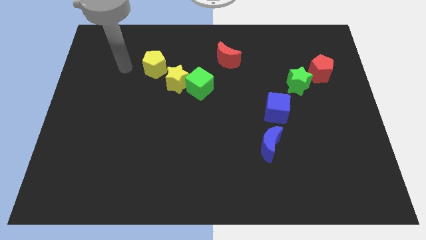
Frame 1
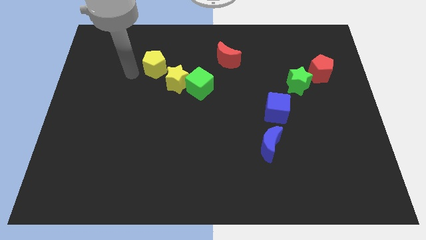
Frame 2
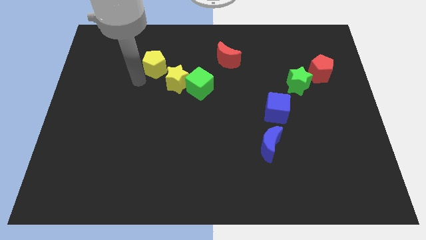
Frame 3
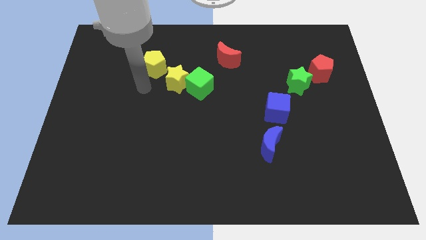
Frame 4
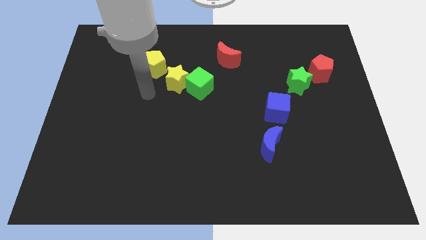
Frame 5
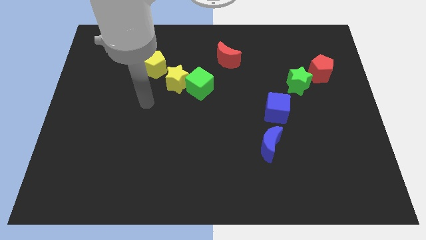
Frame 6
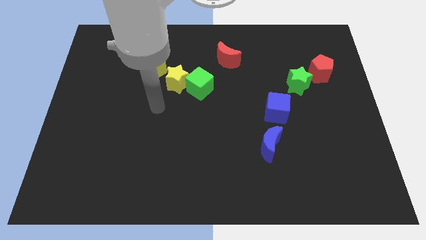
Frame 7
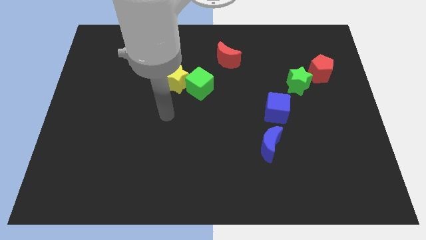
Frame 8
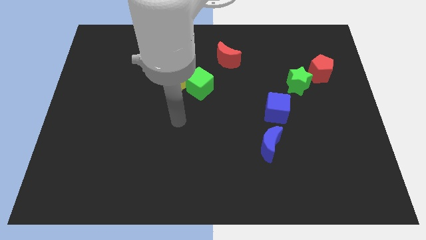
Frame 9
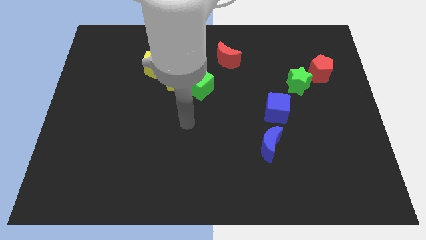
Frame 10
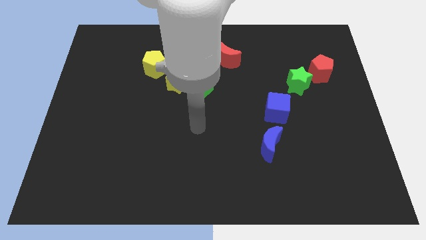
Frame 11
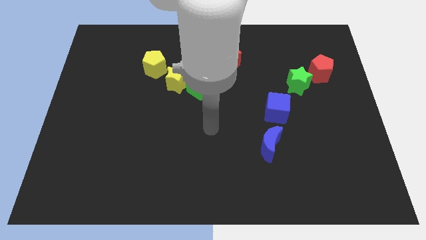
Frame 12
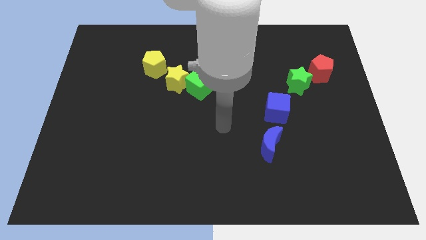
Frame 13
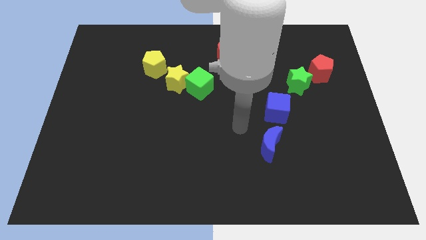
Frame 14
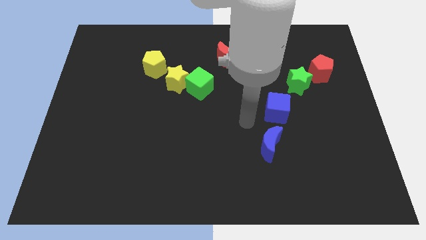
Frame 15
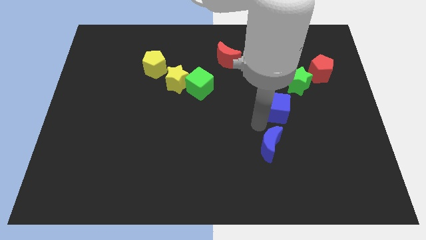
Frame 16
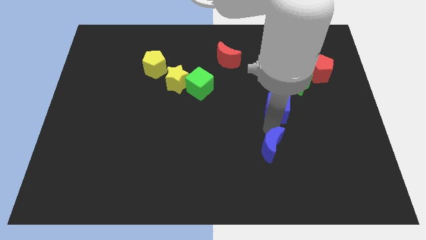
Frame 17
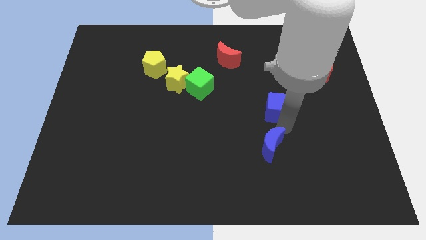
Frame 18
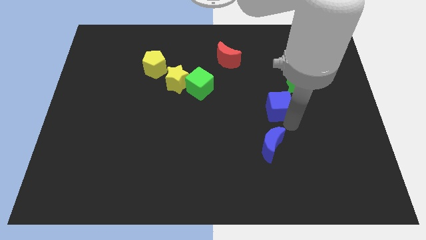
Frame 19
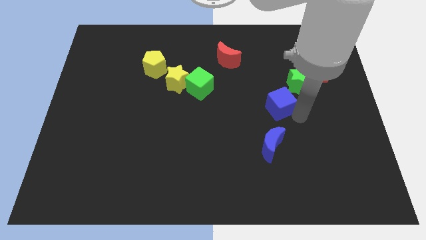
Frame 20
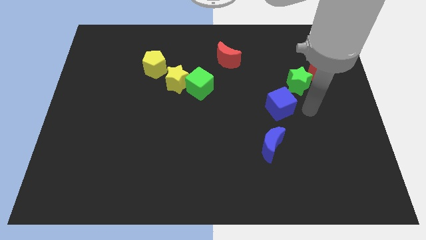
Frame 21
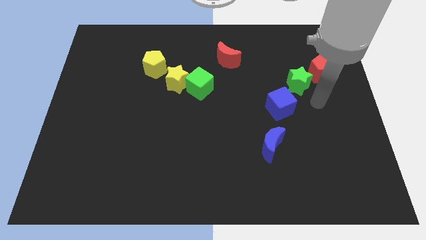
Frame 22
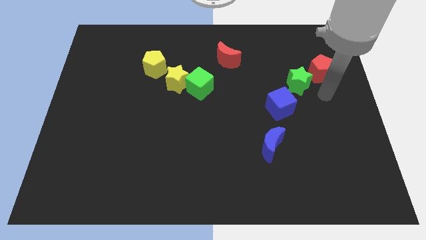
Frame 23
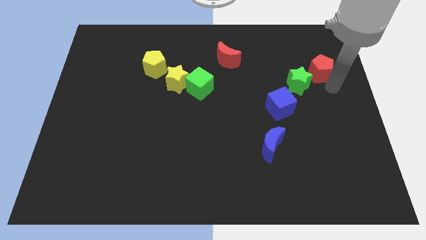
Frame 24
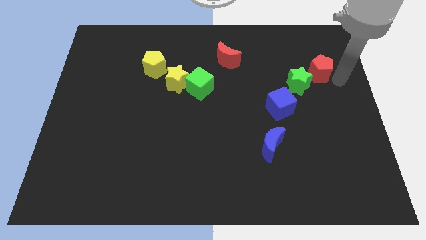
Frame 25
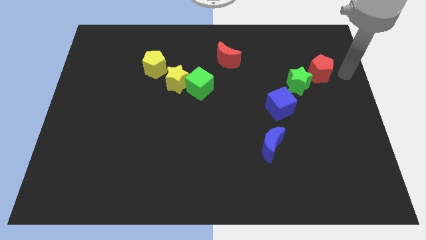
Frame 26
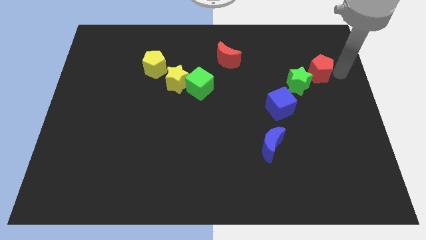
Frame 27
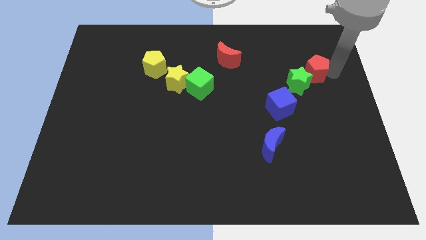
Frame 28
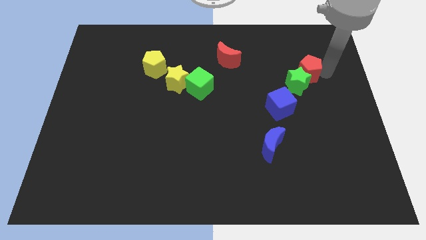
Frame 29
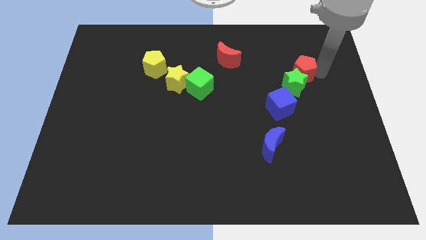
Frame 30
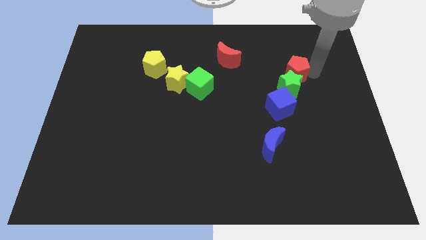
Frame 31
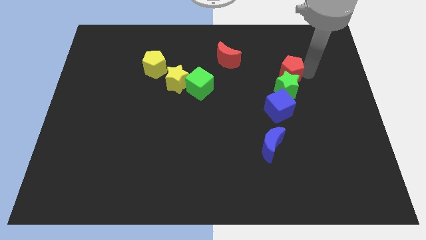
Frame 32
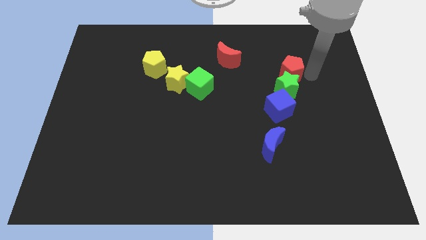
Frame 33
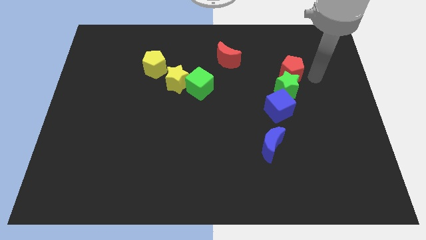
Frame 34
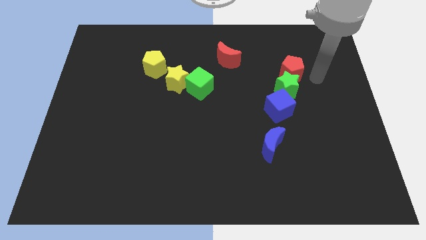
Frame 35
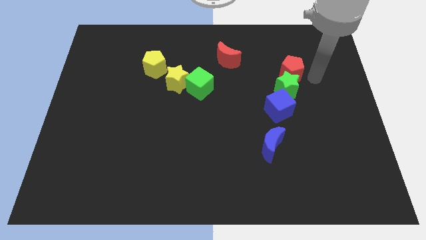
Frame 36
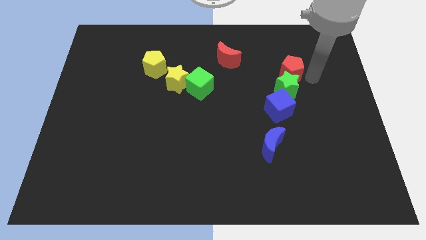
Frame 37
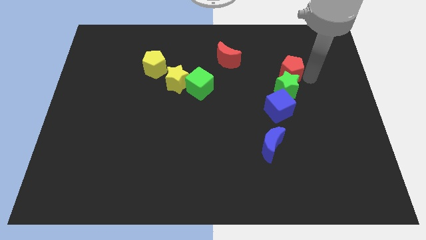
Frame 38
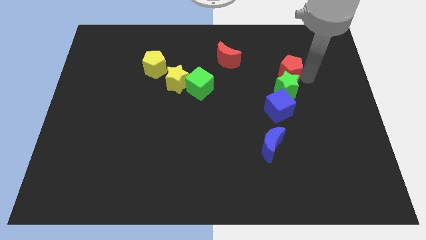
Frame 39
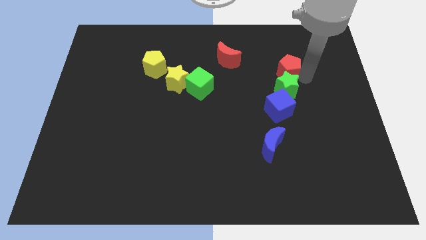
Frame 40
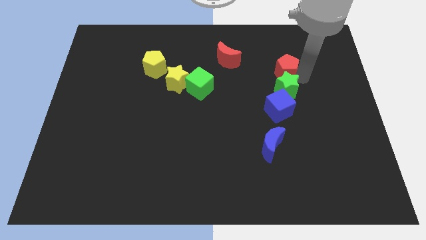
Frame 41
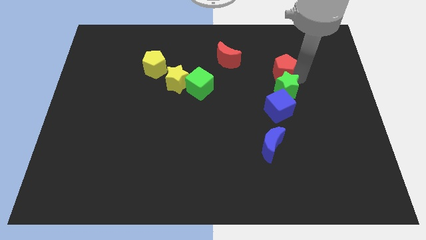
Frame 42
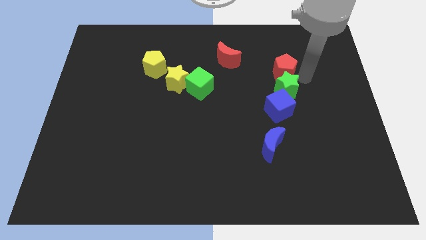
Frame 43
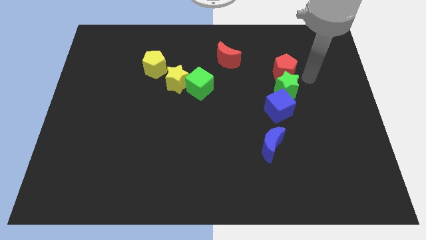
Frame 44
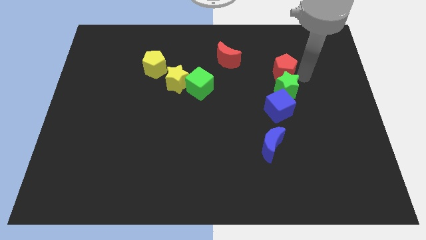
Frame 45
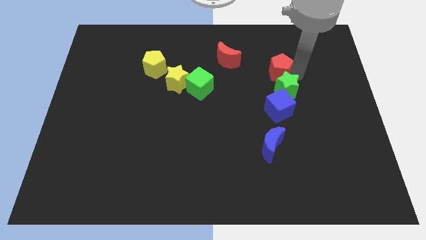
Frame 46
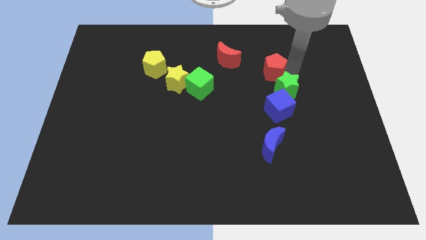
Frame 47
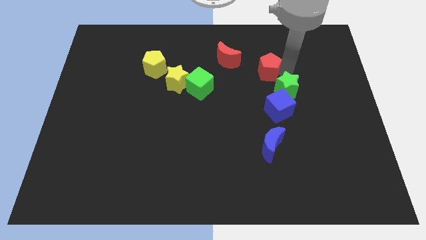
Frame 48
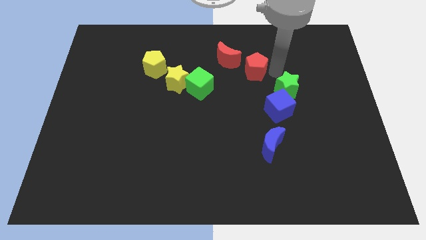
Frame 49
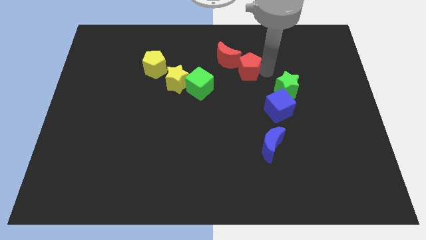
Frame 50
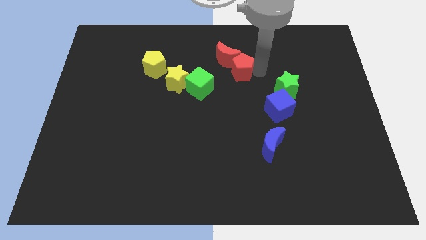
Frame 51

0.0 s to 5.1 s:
put the red pentagon close to the red moon

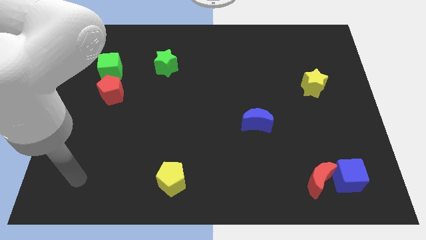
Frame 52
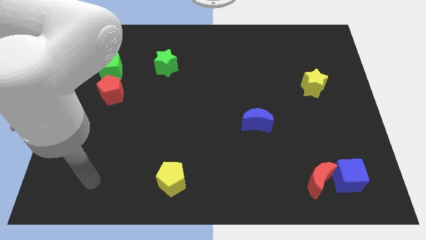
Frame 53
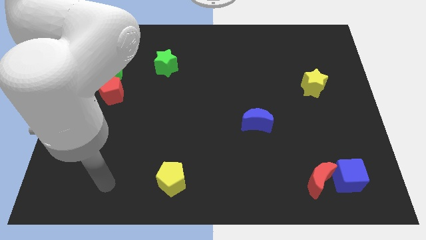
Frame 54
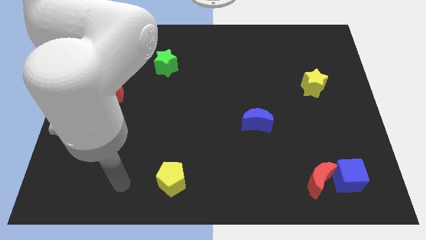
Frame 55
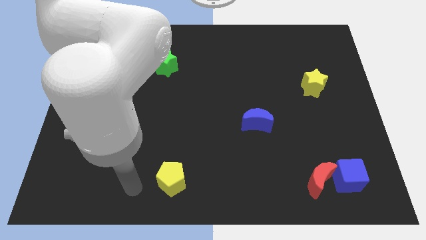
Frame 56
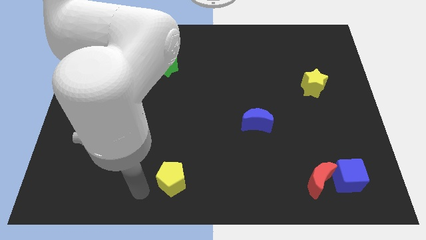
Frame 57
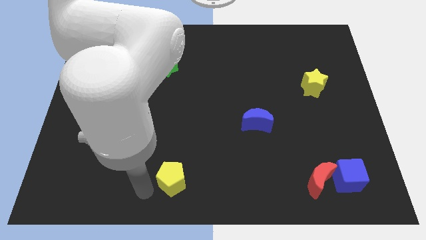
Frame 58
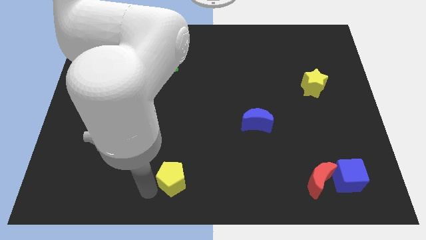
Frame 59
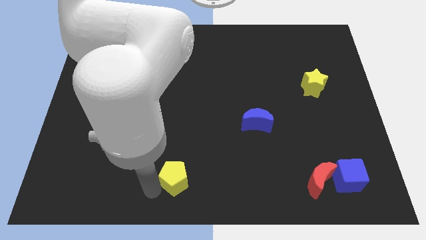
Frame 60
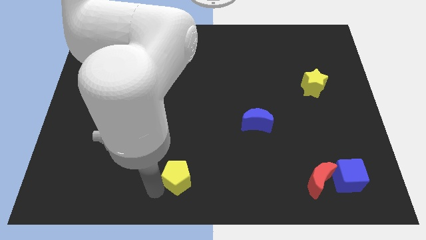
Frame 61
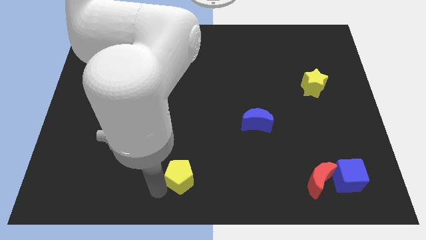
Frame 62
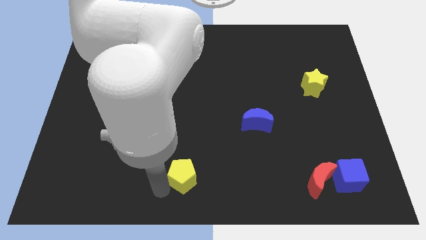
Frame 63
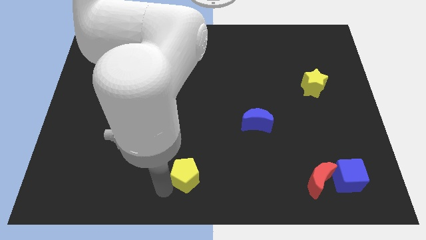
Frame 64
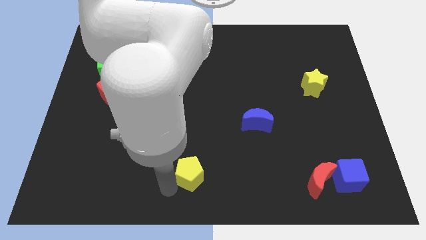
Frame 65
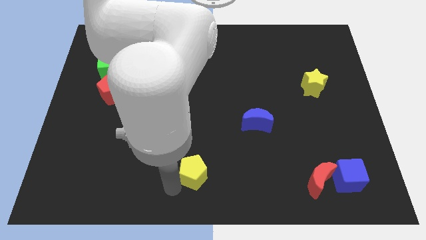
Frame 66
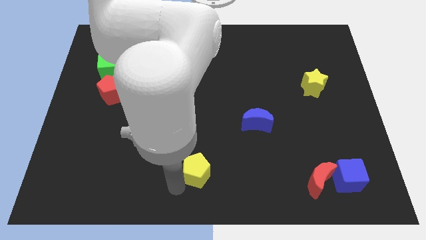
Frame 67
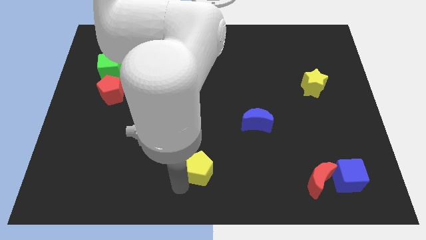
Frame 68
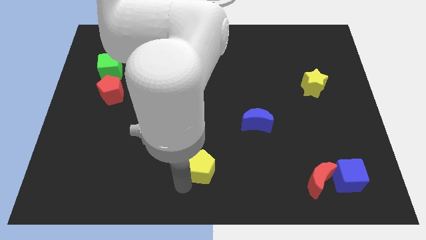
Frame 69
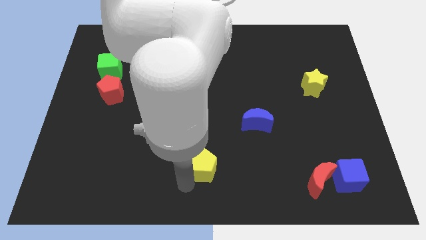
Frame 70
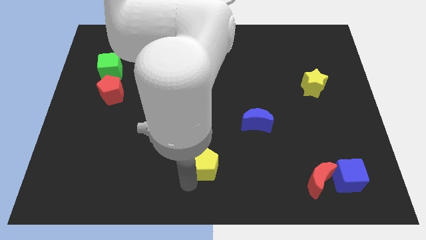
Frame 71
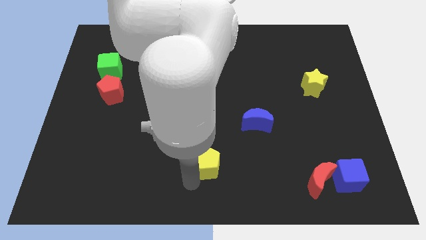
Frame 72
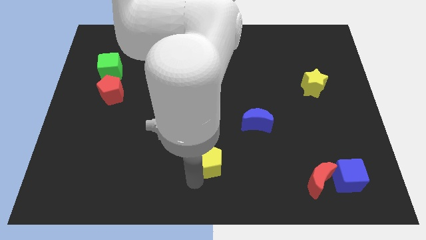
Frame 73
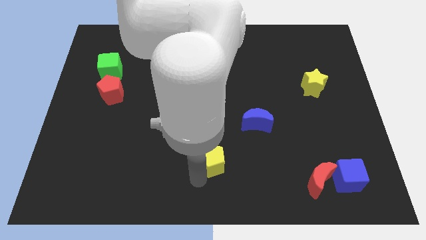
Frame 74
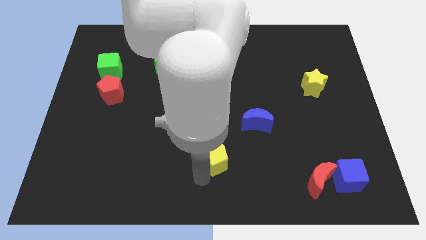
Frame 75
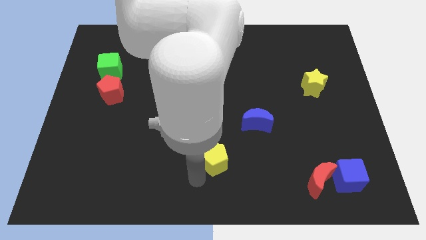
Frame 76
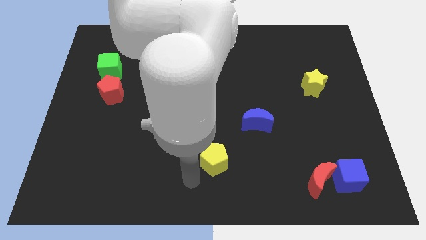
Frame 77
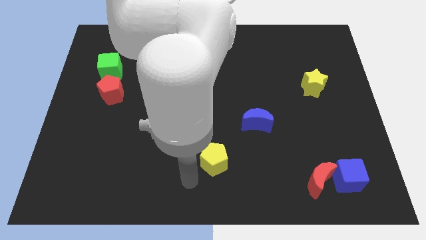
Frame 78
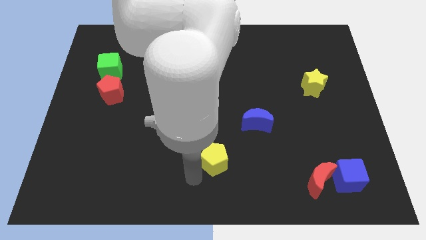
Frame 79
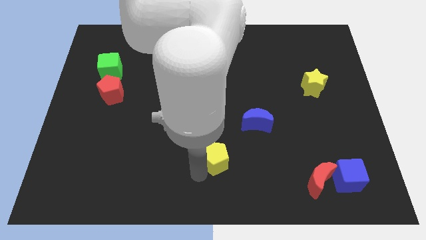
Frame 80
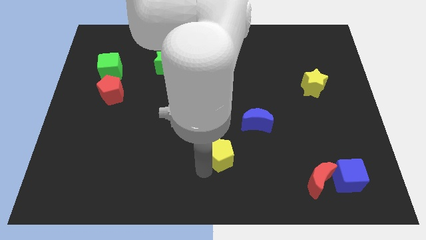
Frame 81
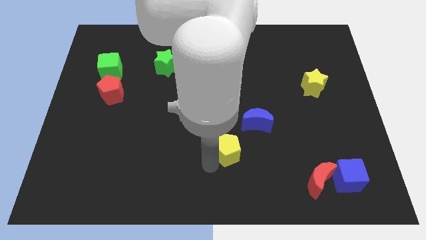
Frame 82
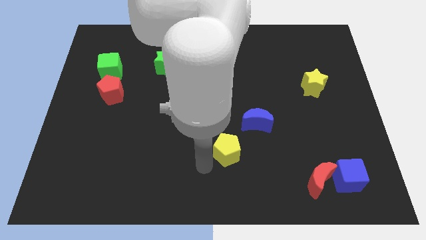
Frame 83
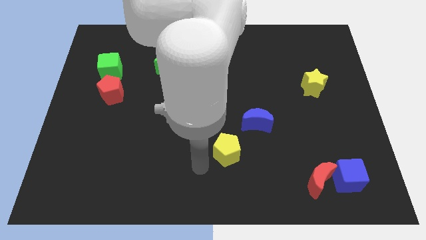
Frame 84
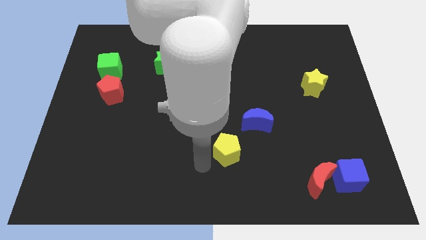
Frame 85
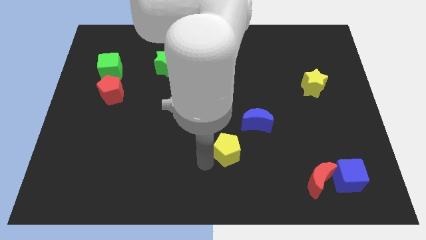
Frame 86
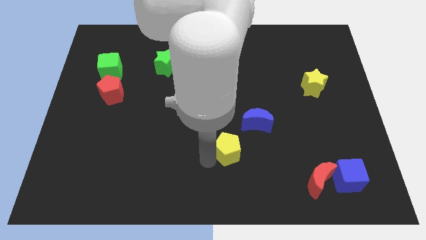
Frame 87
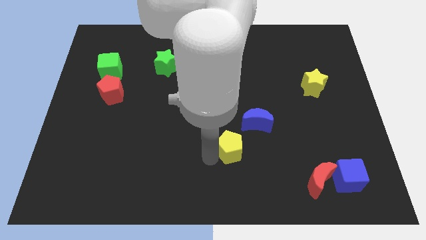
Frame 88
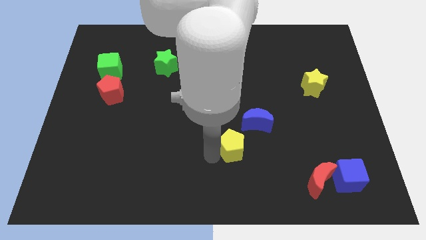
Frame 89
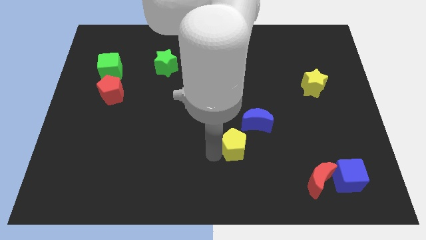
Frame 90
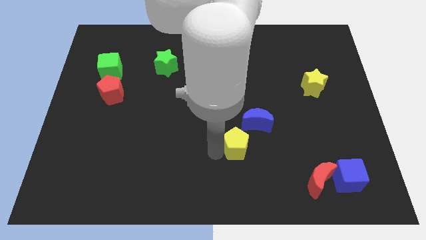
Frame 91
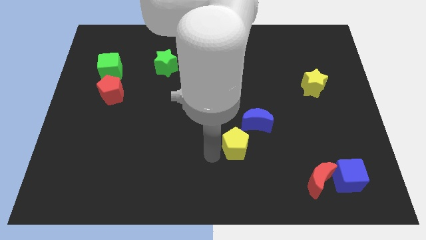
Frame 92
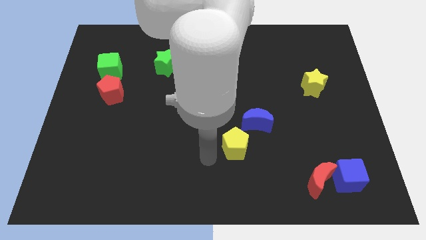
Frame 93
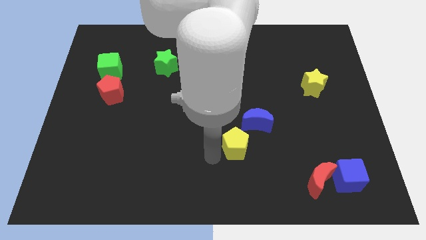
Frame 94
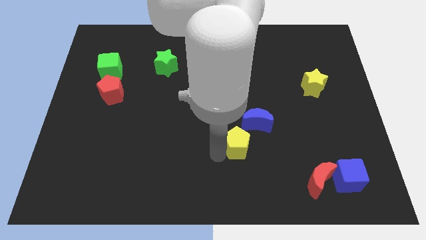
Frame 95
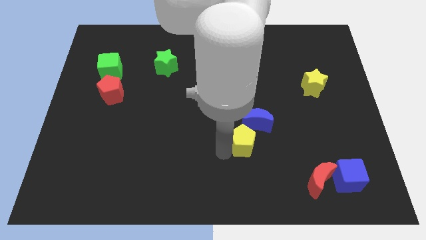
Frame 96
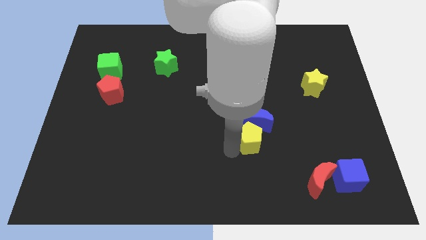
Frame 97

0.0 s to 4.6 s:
move the yellow pentagon to the blue moon
